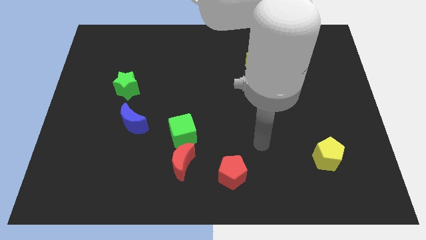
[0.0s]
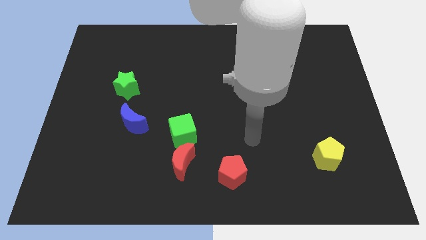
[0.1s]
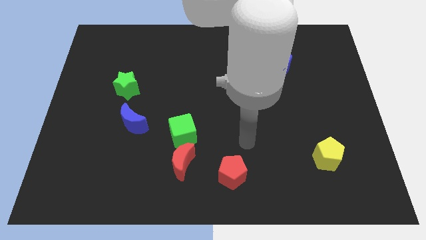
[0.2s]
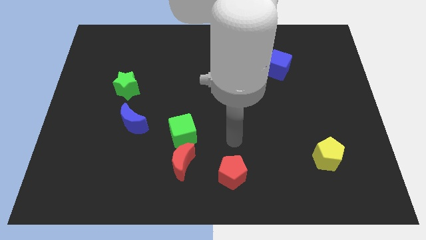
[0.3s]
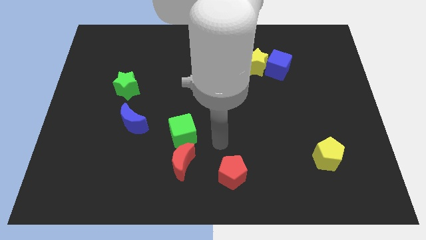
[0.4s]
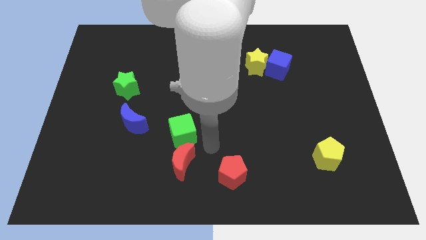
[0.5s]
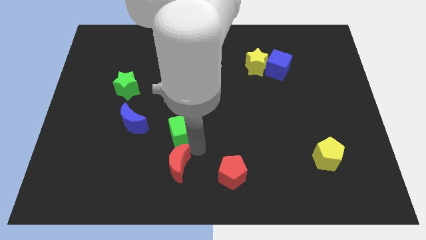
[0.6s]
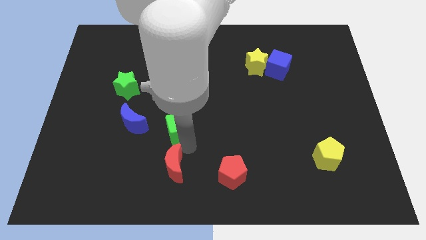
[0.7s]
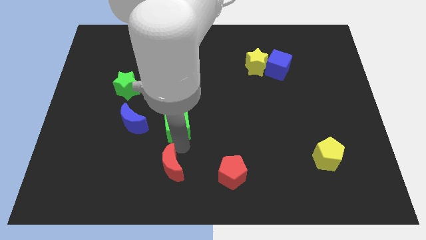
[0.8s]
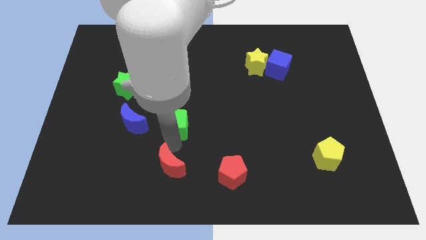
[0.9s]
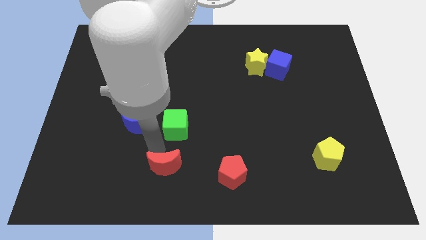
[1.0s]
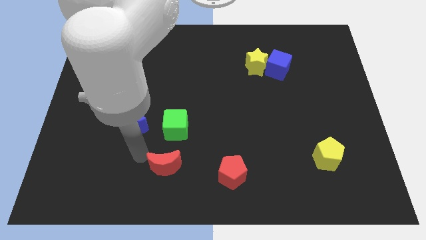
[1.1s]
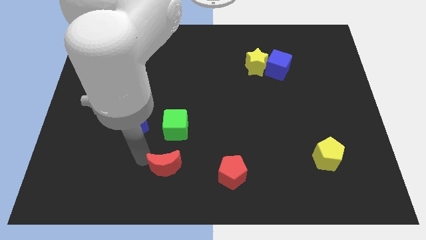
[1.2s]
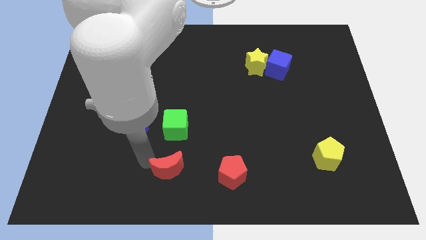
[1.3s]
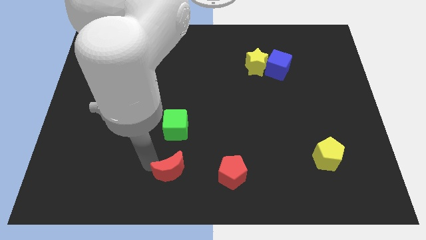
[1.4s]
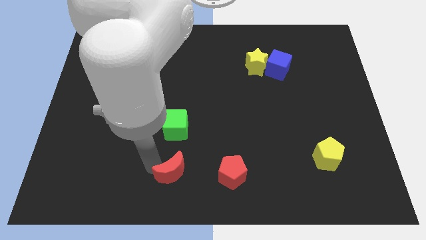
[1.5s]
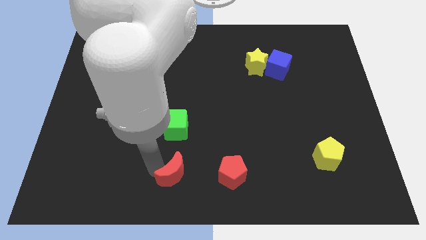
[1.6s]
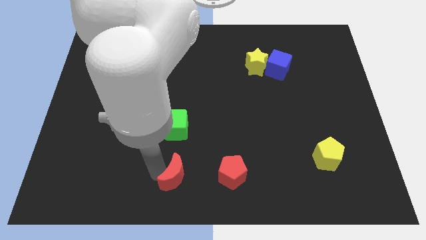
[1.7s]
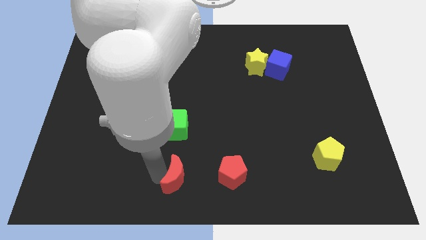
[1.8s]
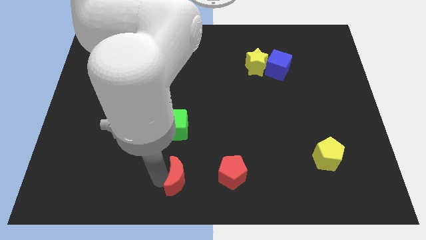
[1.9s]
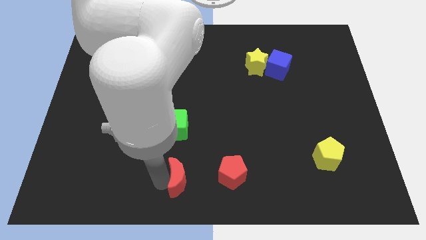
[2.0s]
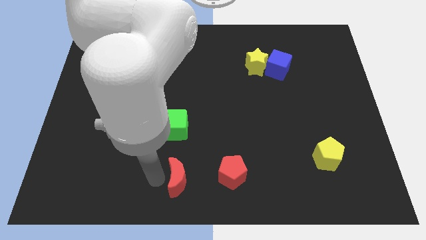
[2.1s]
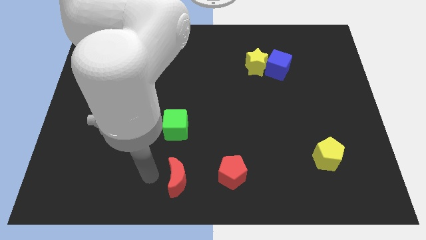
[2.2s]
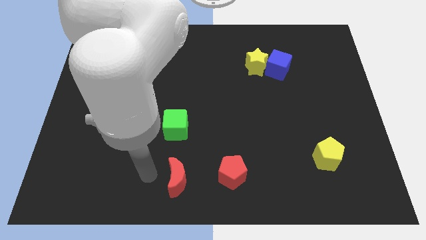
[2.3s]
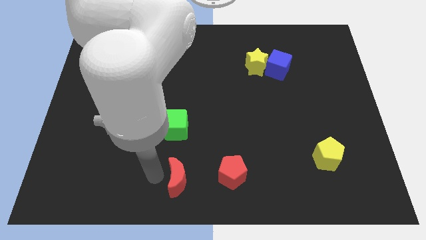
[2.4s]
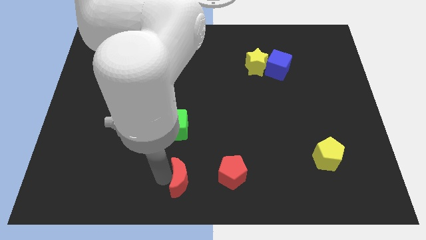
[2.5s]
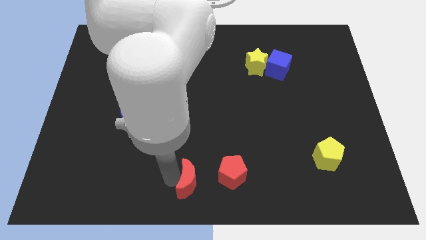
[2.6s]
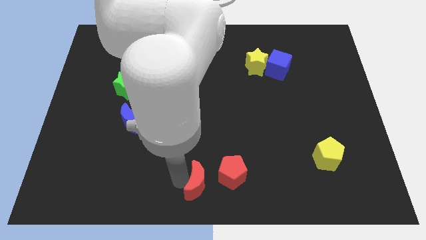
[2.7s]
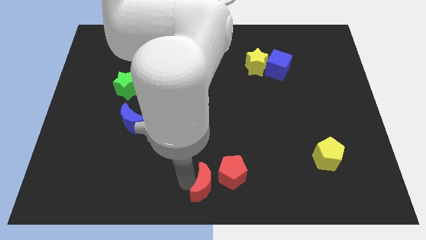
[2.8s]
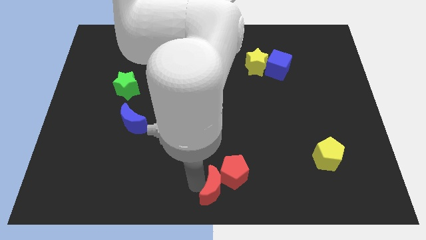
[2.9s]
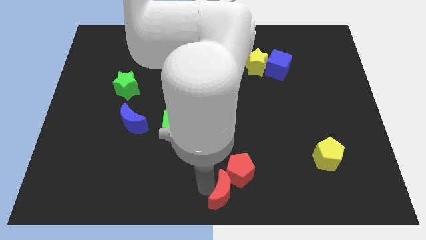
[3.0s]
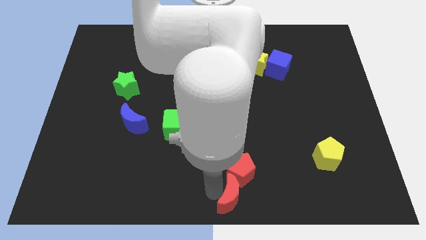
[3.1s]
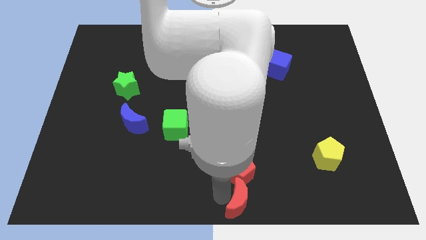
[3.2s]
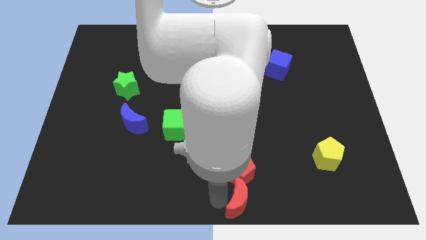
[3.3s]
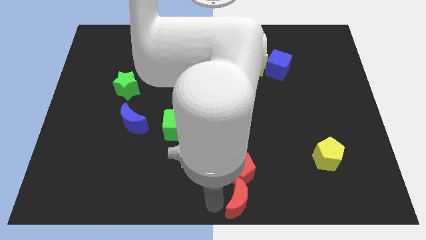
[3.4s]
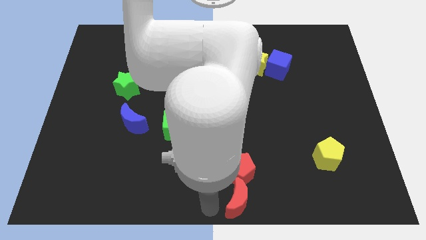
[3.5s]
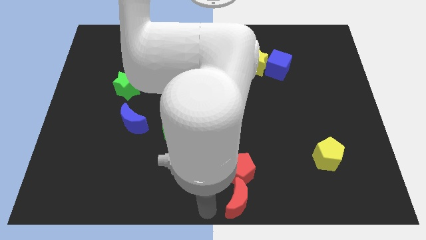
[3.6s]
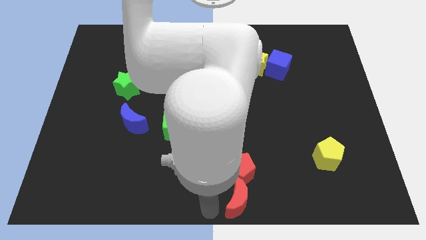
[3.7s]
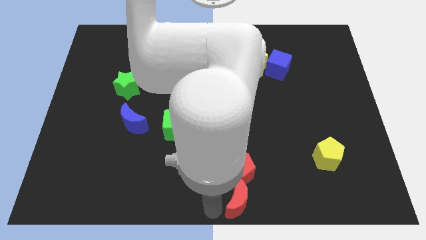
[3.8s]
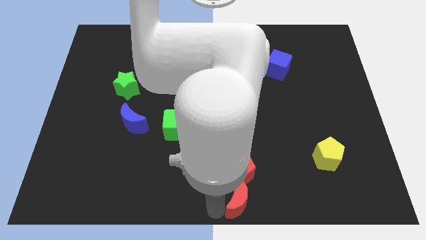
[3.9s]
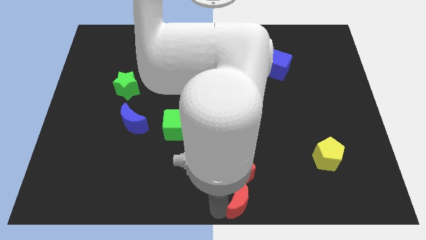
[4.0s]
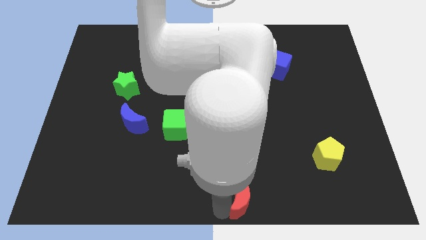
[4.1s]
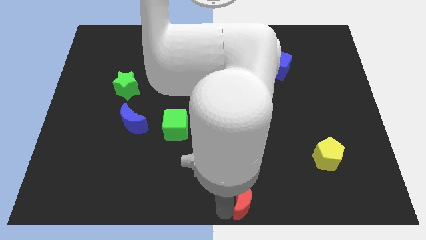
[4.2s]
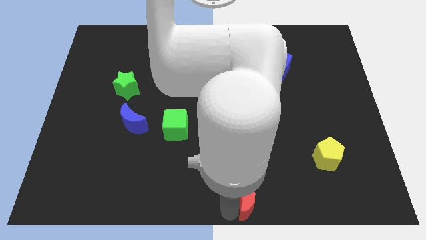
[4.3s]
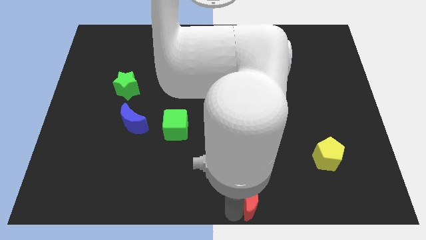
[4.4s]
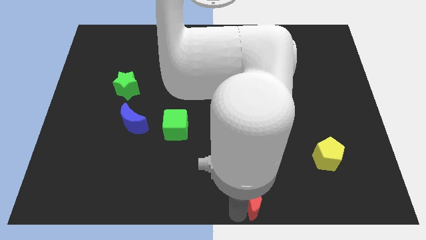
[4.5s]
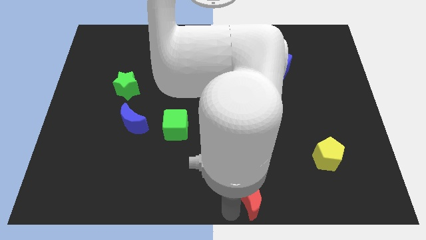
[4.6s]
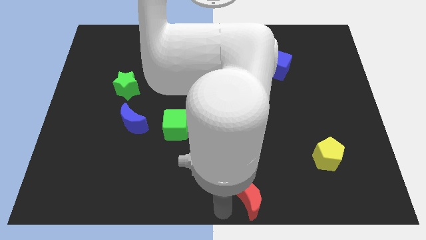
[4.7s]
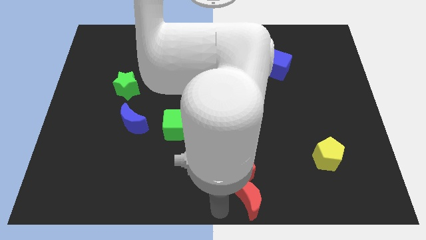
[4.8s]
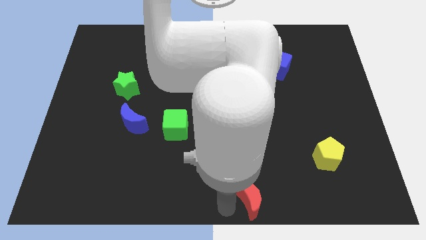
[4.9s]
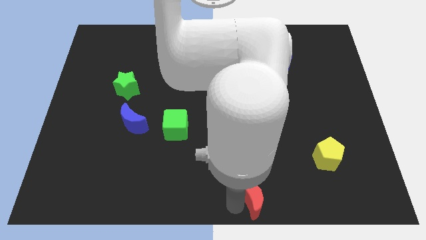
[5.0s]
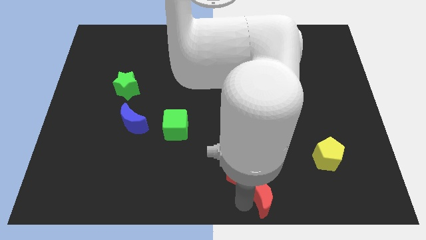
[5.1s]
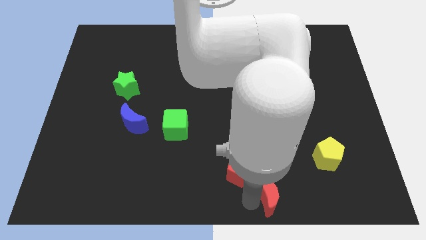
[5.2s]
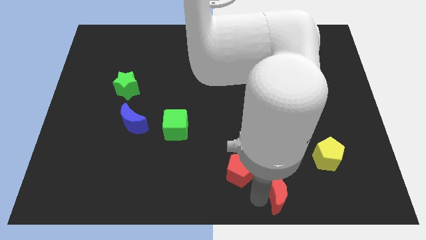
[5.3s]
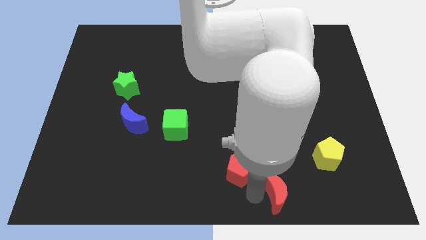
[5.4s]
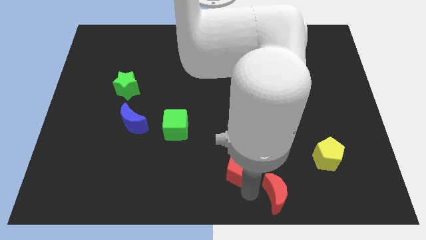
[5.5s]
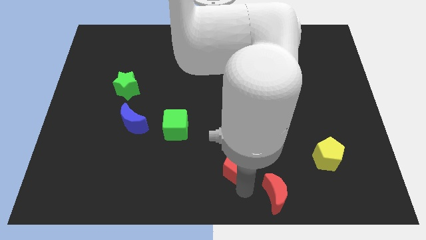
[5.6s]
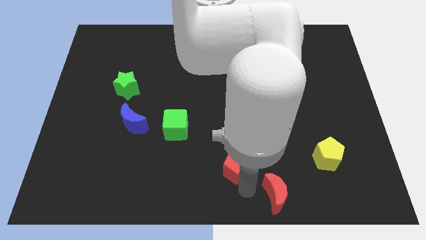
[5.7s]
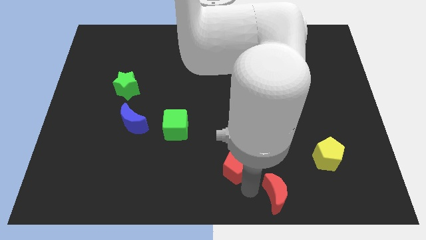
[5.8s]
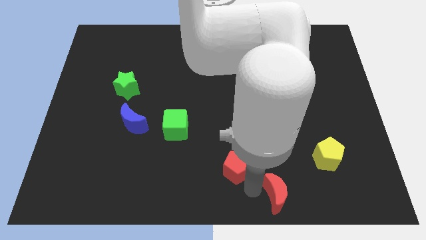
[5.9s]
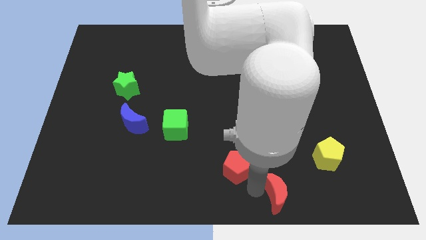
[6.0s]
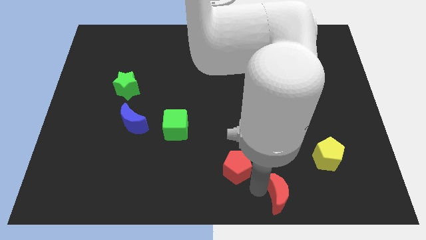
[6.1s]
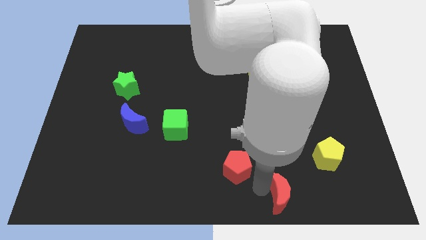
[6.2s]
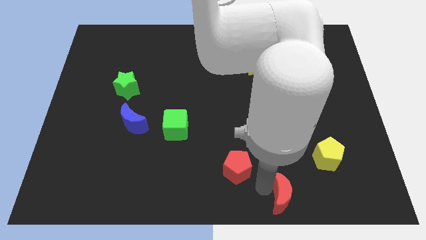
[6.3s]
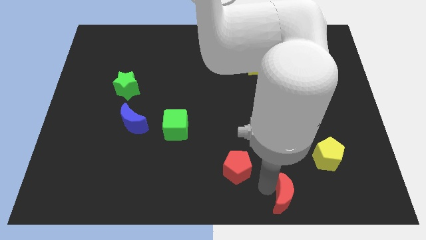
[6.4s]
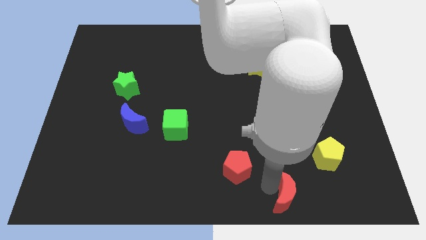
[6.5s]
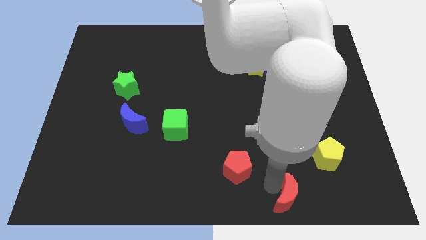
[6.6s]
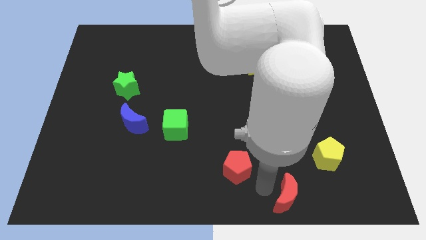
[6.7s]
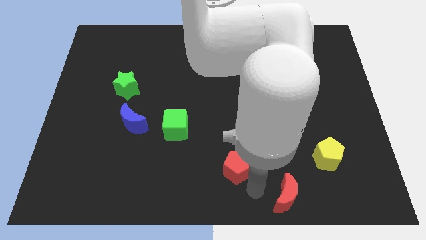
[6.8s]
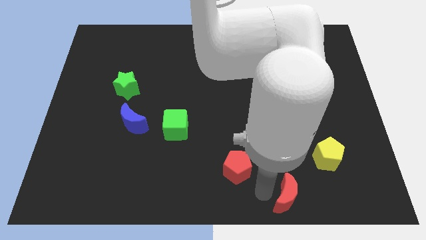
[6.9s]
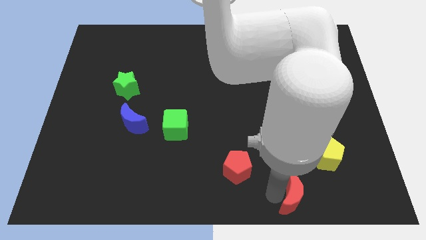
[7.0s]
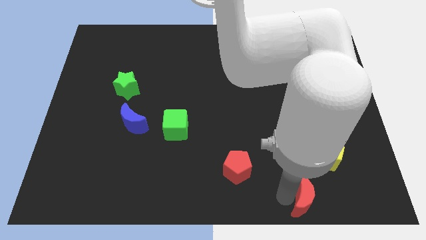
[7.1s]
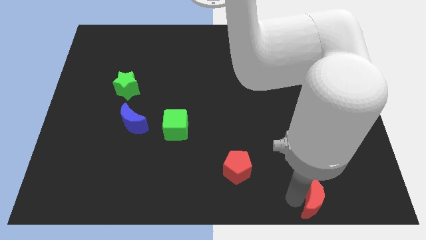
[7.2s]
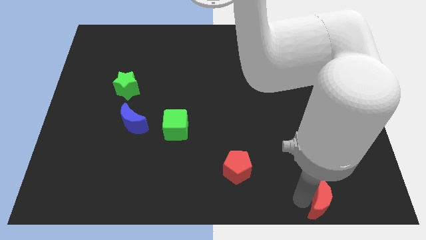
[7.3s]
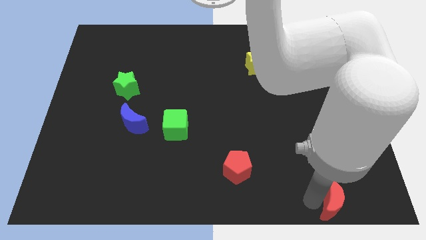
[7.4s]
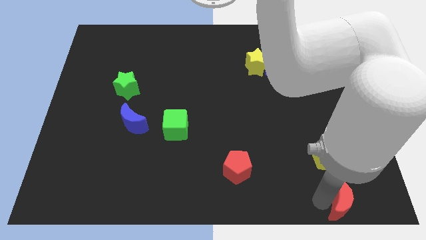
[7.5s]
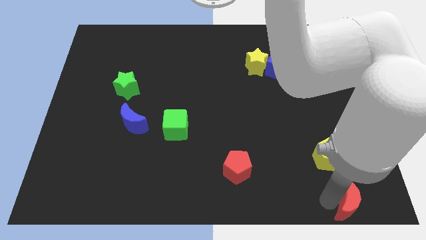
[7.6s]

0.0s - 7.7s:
move the red moon to the bottom right
